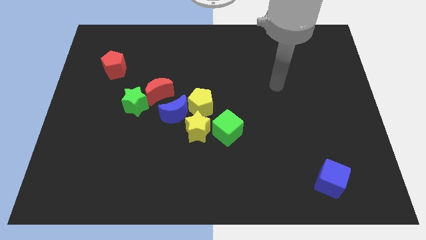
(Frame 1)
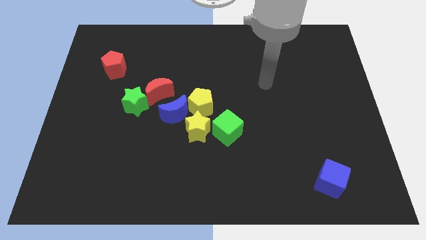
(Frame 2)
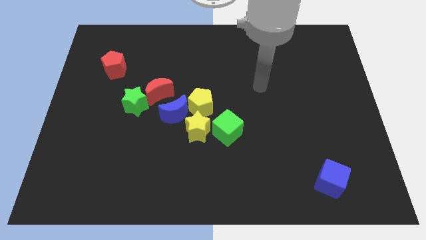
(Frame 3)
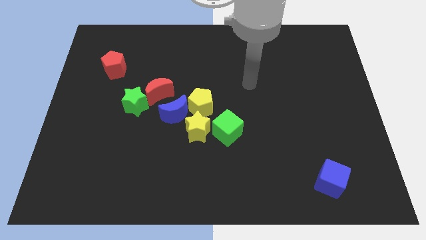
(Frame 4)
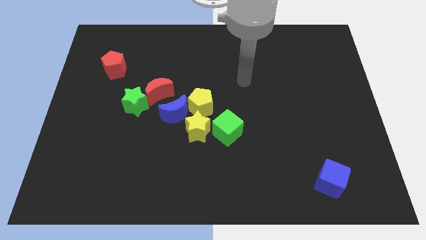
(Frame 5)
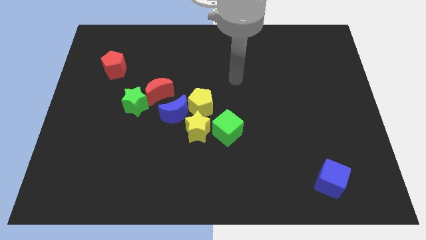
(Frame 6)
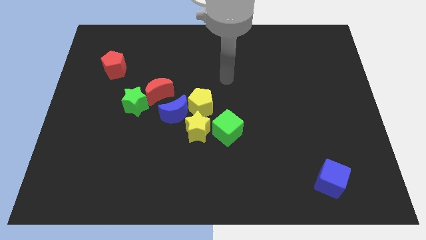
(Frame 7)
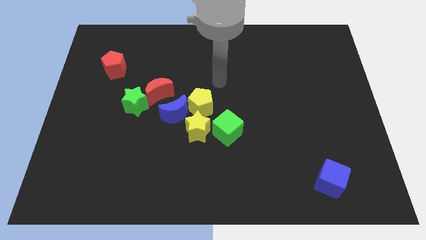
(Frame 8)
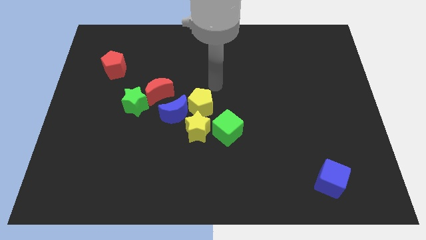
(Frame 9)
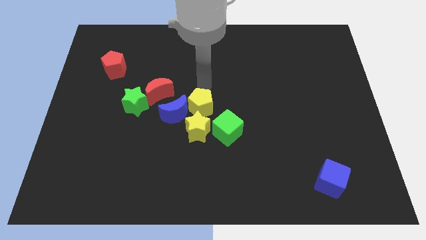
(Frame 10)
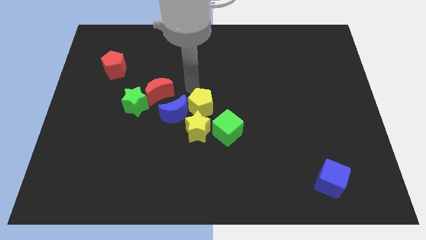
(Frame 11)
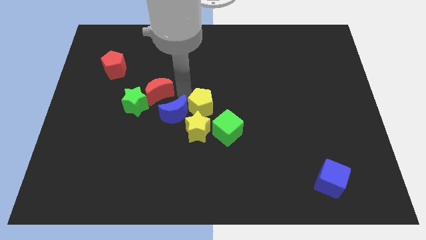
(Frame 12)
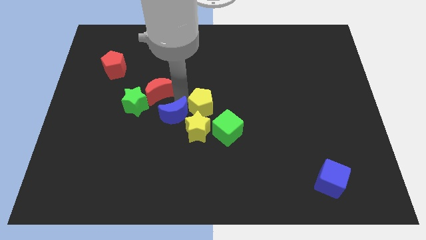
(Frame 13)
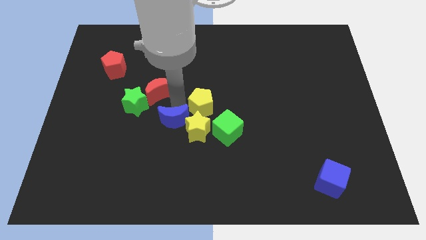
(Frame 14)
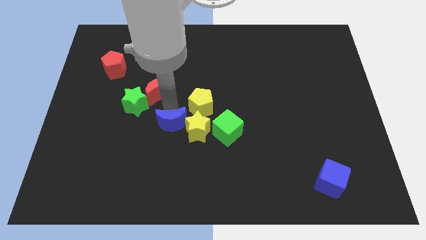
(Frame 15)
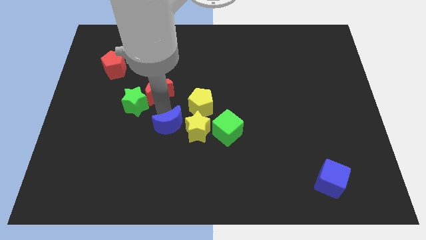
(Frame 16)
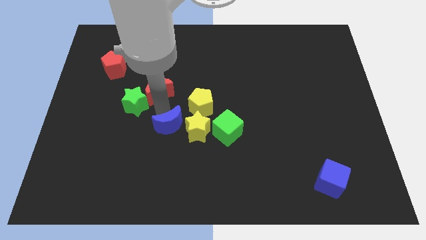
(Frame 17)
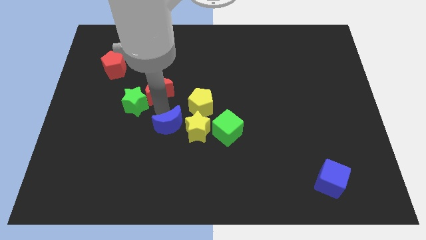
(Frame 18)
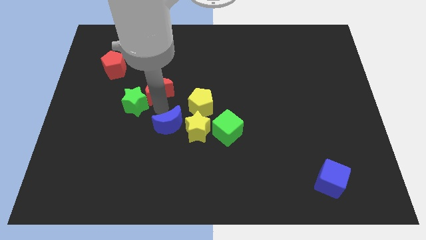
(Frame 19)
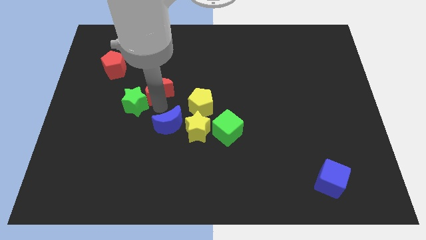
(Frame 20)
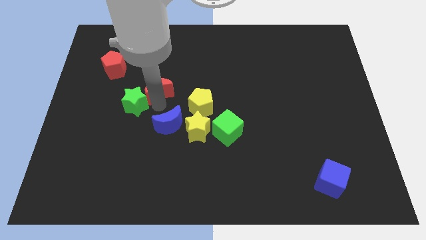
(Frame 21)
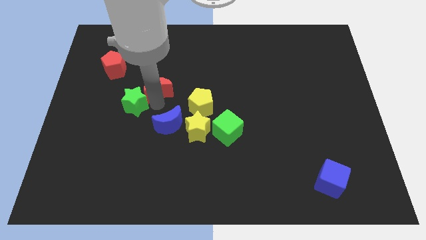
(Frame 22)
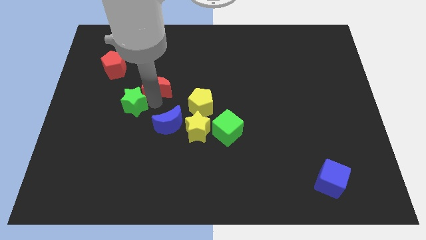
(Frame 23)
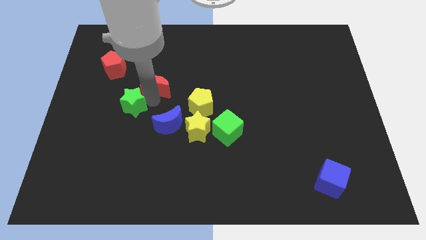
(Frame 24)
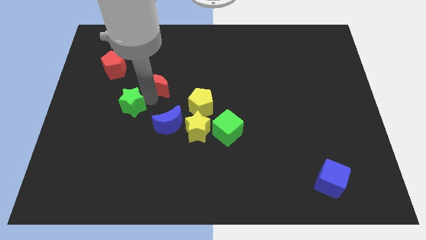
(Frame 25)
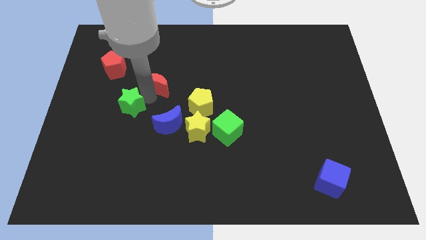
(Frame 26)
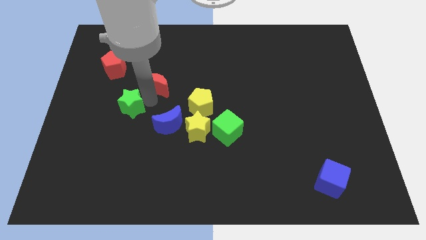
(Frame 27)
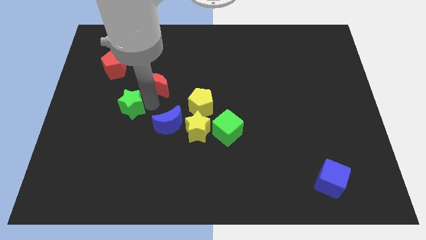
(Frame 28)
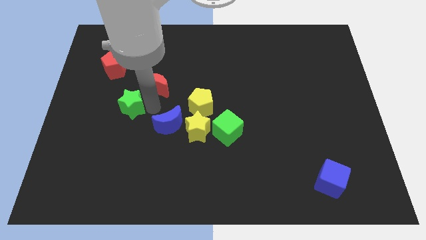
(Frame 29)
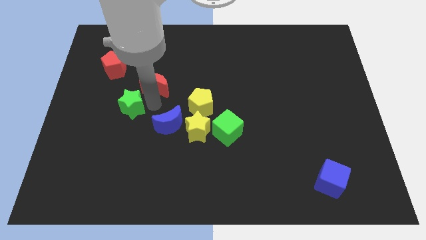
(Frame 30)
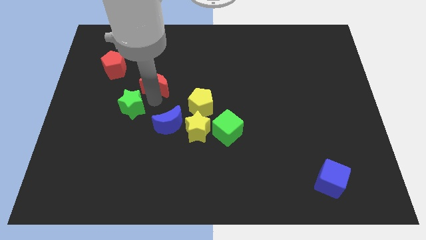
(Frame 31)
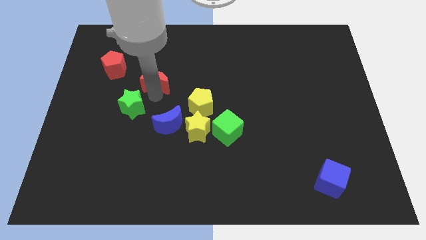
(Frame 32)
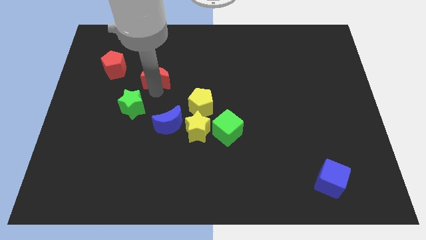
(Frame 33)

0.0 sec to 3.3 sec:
separate the red moon from the green star and blue moon

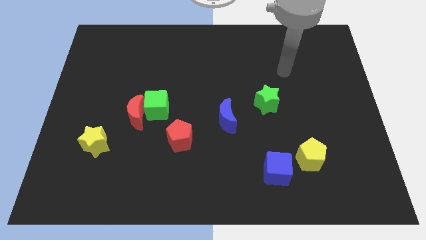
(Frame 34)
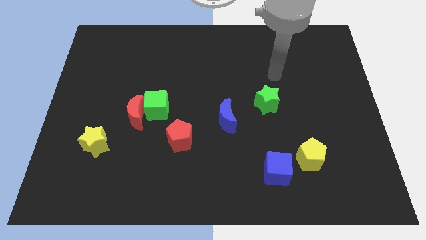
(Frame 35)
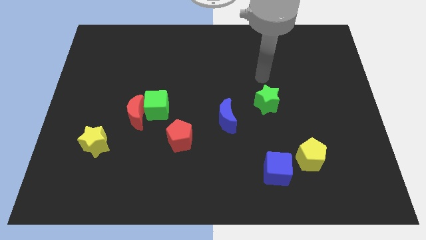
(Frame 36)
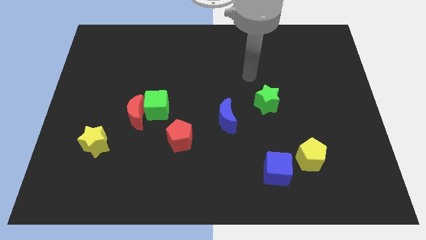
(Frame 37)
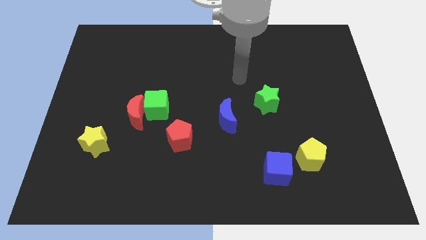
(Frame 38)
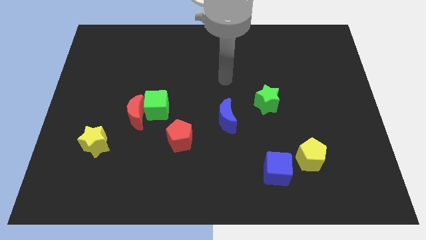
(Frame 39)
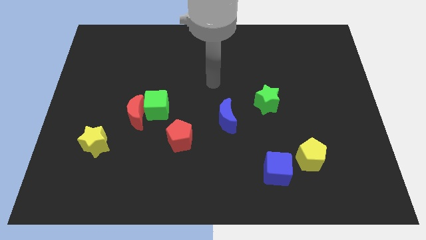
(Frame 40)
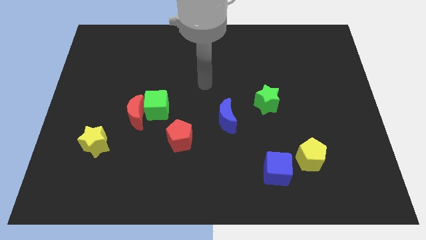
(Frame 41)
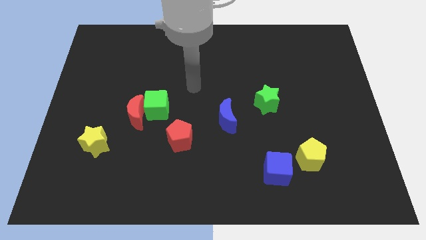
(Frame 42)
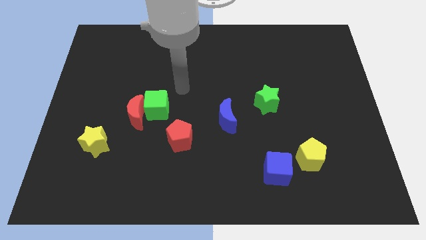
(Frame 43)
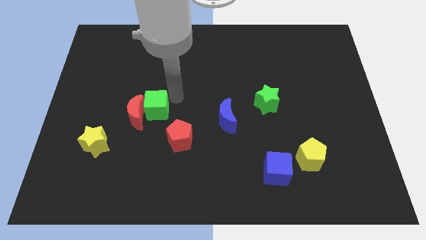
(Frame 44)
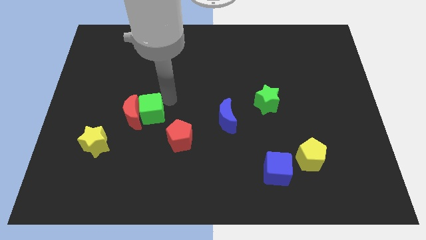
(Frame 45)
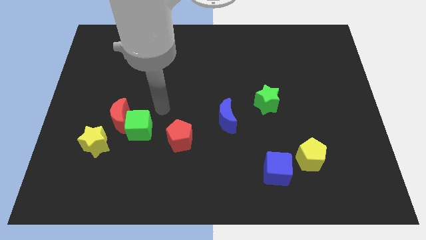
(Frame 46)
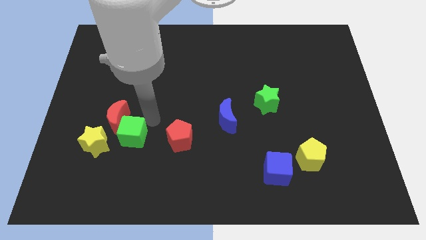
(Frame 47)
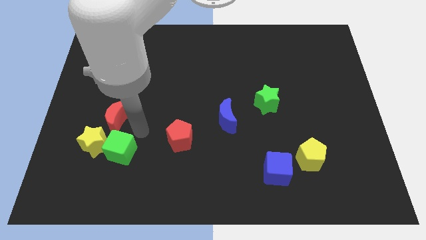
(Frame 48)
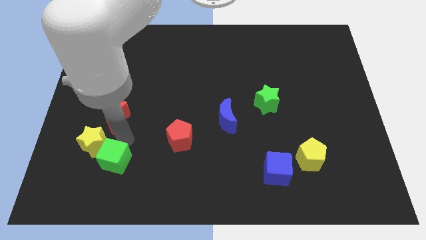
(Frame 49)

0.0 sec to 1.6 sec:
separate the red moon from the green cube

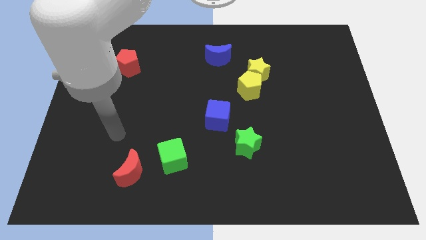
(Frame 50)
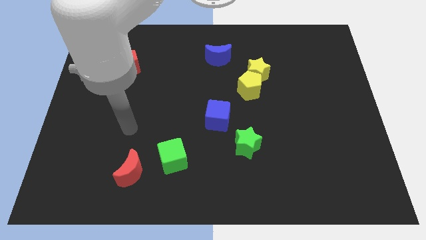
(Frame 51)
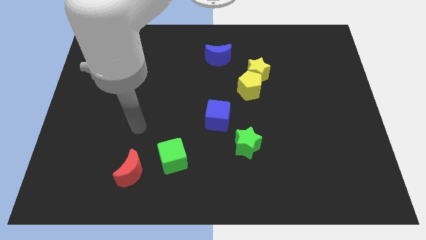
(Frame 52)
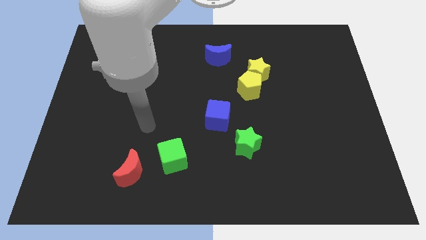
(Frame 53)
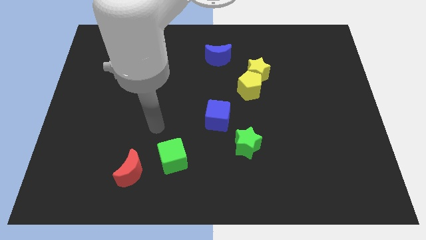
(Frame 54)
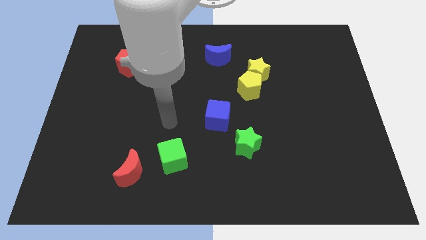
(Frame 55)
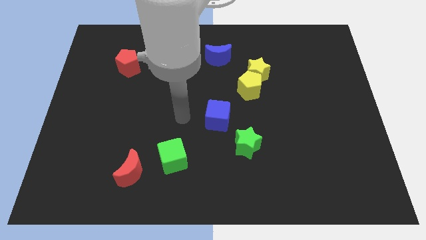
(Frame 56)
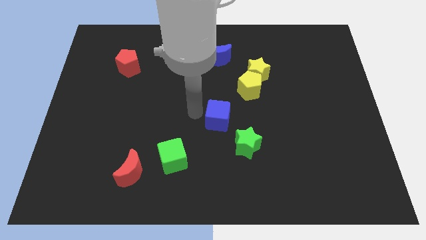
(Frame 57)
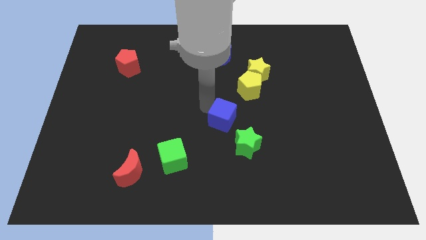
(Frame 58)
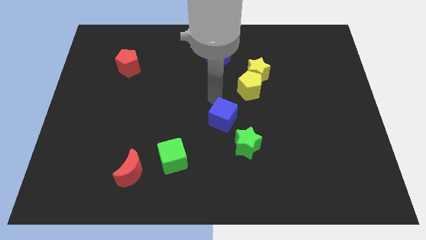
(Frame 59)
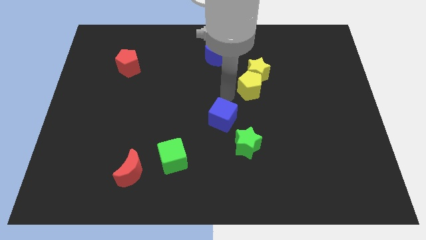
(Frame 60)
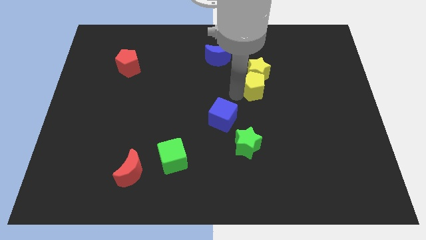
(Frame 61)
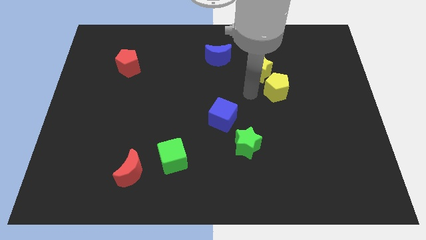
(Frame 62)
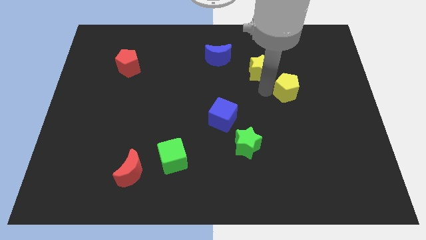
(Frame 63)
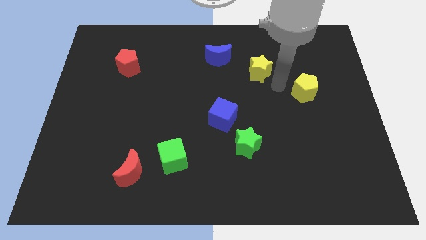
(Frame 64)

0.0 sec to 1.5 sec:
pull the yellow star apart from the yellow pentagon

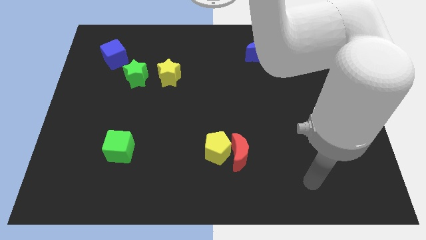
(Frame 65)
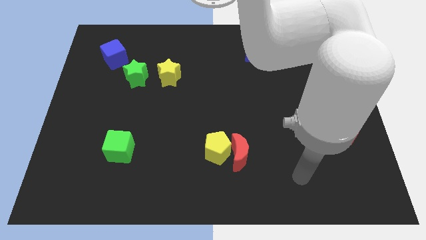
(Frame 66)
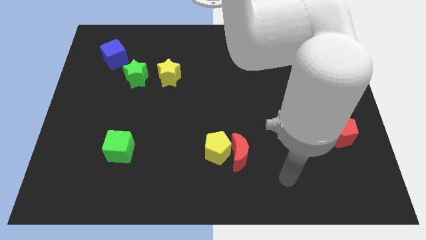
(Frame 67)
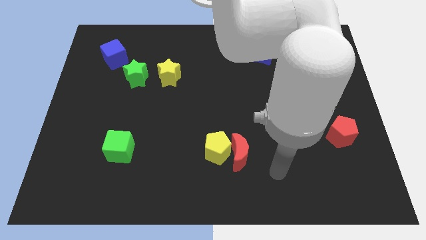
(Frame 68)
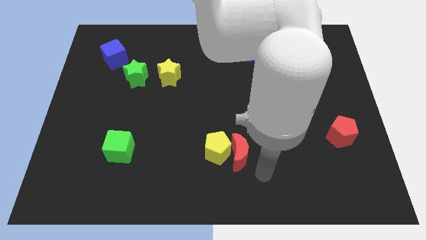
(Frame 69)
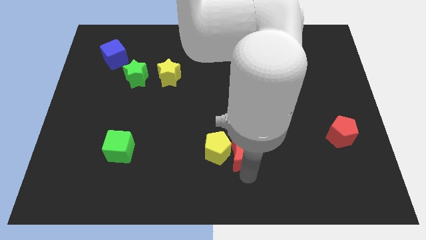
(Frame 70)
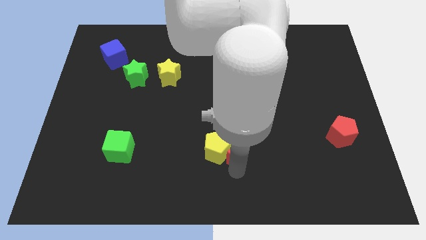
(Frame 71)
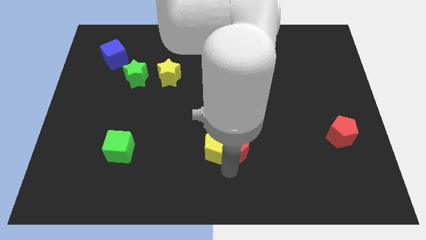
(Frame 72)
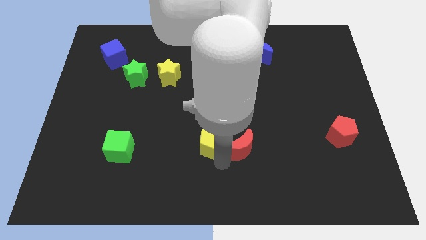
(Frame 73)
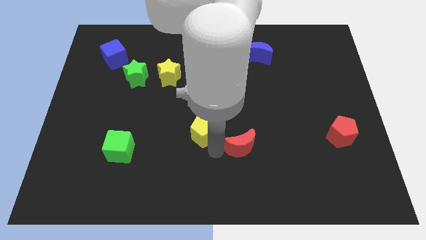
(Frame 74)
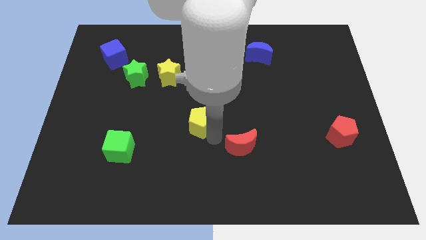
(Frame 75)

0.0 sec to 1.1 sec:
pull the red moon apart from the yellow pentagon

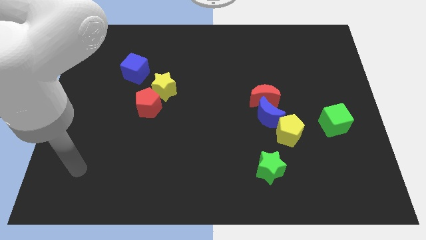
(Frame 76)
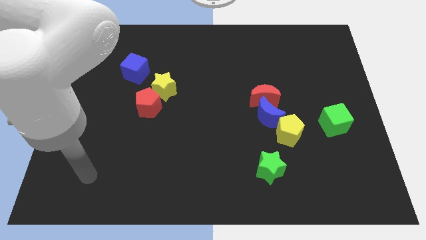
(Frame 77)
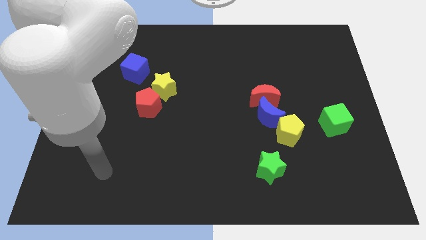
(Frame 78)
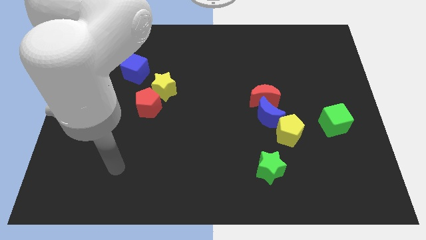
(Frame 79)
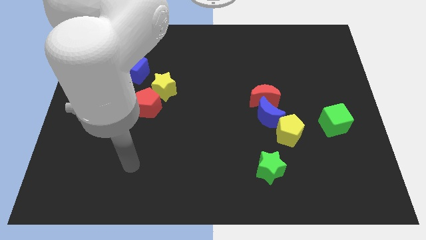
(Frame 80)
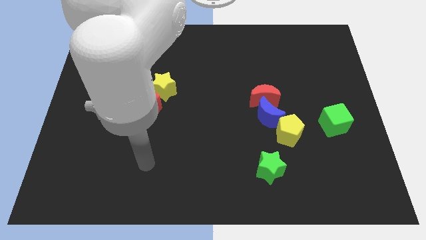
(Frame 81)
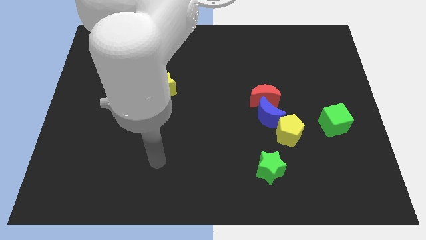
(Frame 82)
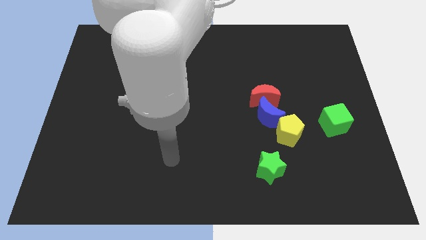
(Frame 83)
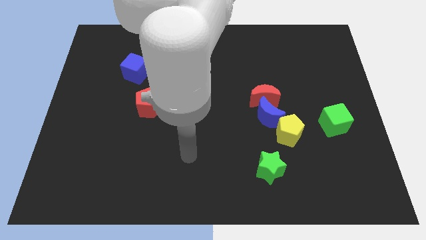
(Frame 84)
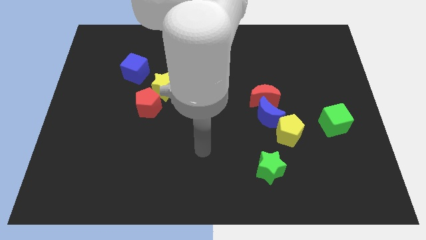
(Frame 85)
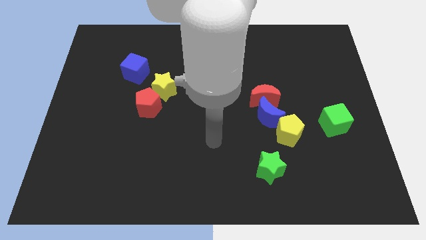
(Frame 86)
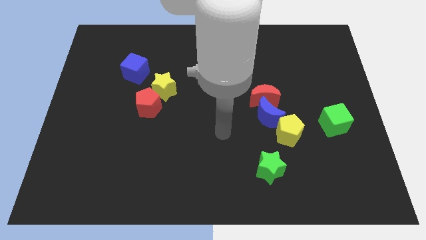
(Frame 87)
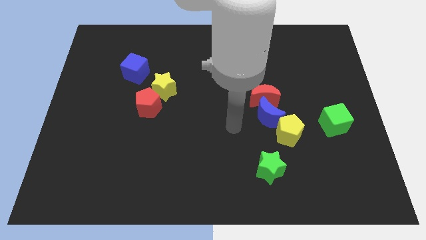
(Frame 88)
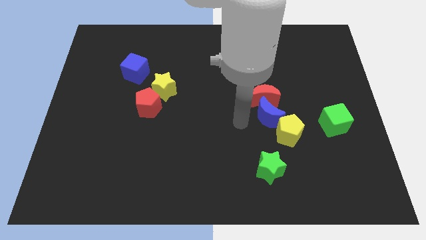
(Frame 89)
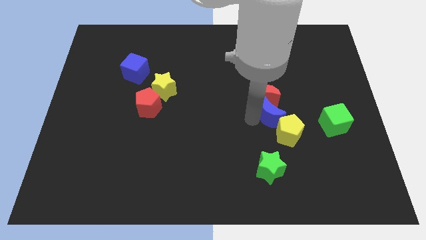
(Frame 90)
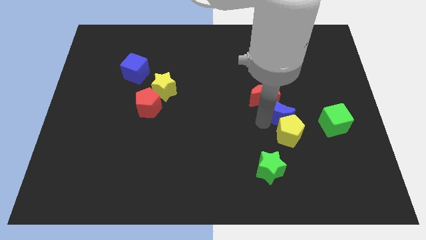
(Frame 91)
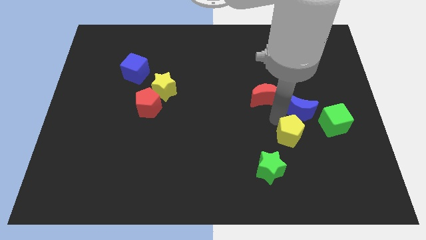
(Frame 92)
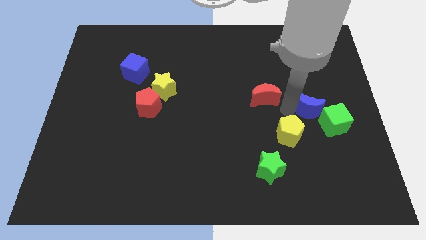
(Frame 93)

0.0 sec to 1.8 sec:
pull the red moon apart from the blue moon
